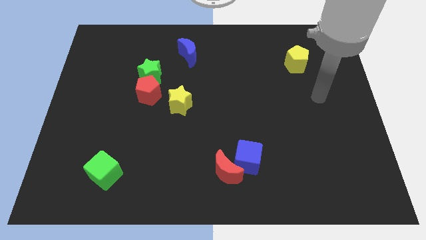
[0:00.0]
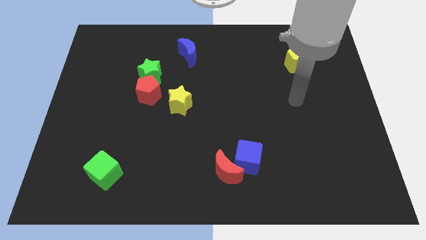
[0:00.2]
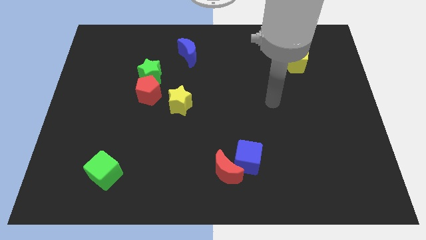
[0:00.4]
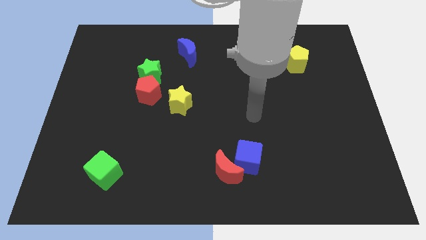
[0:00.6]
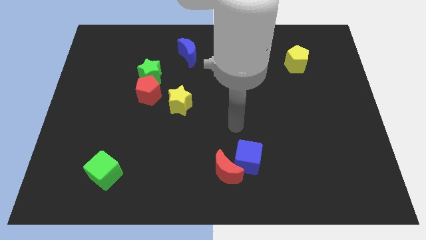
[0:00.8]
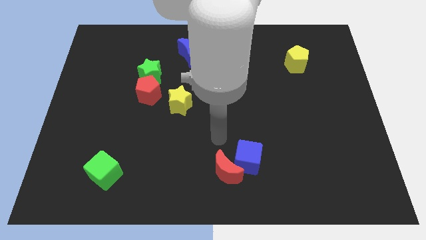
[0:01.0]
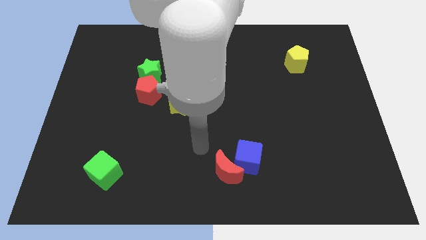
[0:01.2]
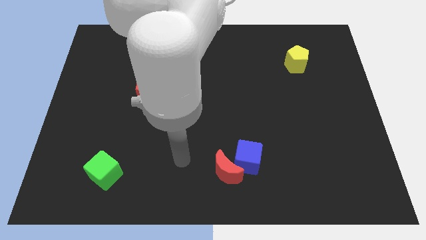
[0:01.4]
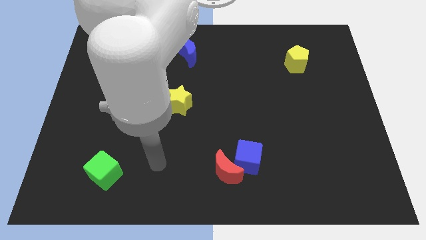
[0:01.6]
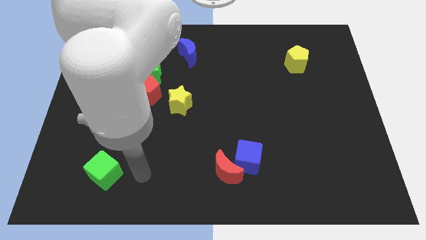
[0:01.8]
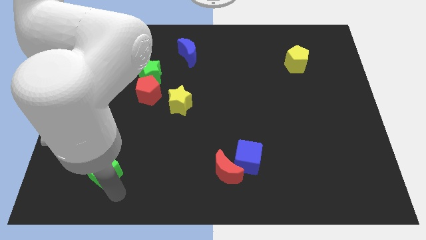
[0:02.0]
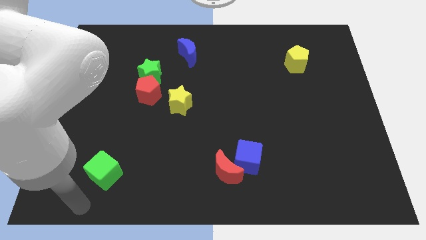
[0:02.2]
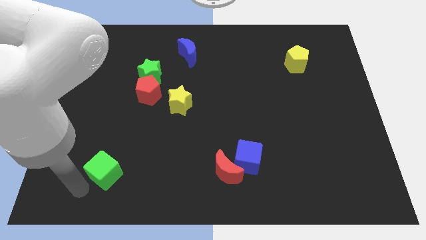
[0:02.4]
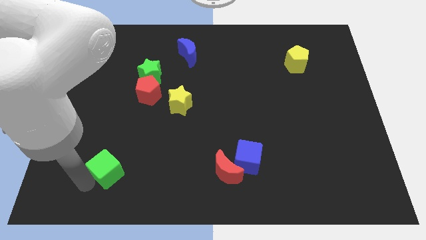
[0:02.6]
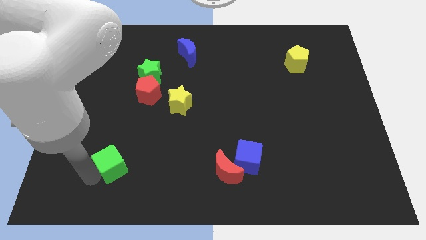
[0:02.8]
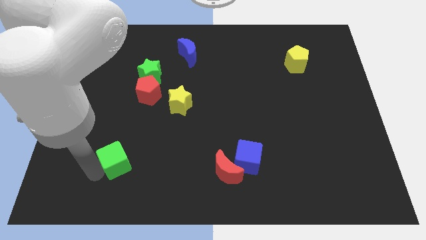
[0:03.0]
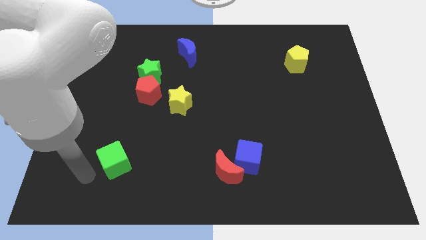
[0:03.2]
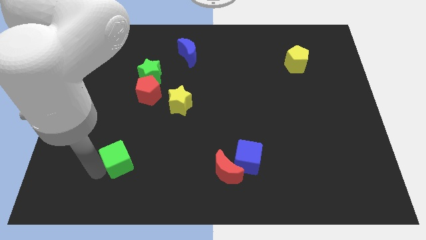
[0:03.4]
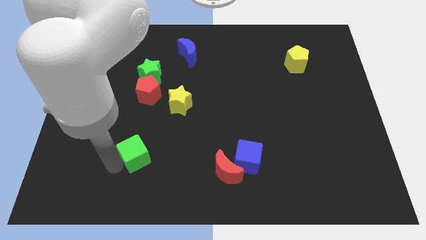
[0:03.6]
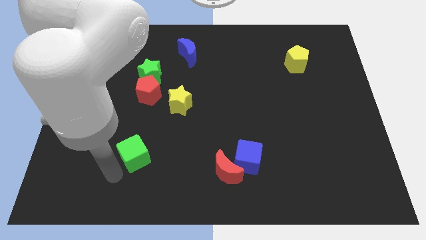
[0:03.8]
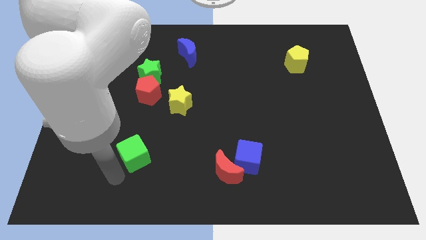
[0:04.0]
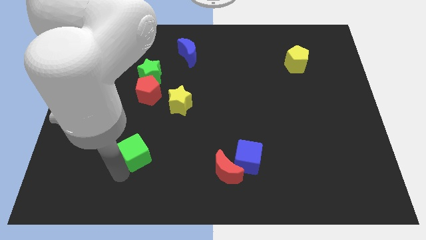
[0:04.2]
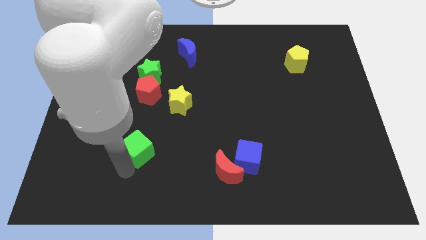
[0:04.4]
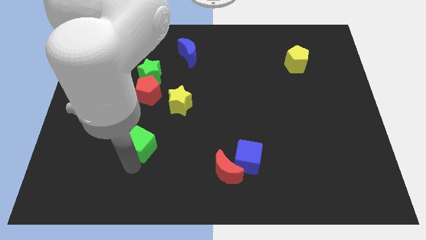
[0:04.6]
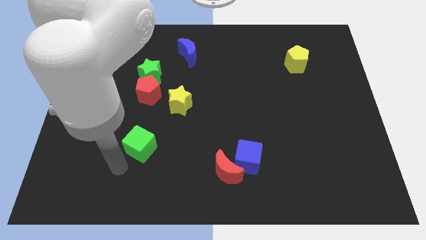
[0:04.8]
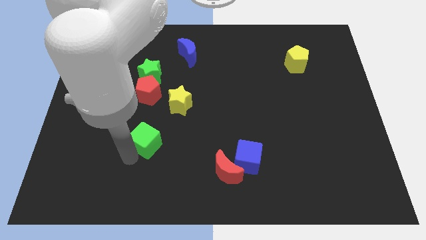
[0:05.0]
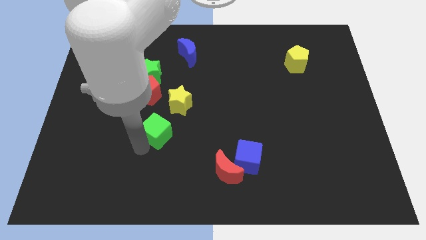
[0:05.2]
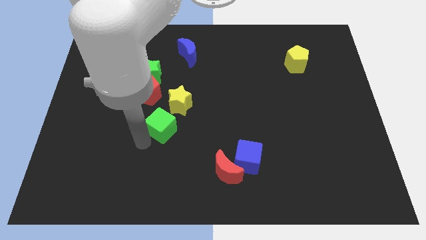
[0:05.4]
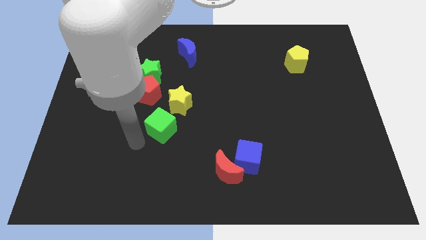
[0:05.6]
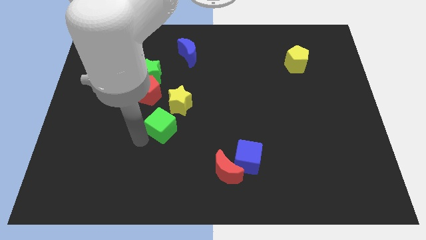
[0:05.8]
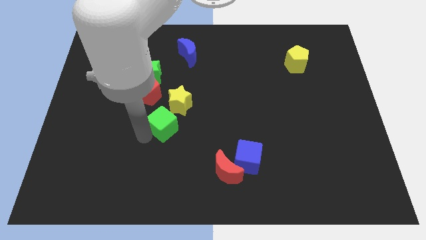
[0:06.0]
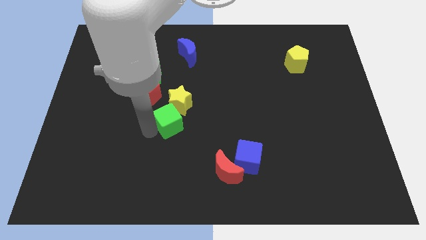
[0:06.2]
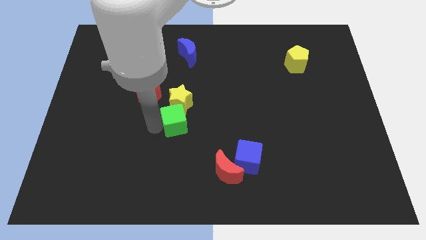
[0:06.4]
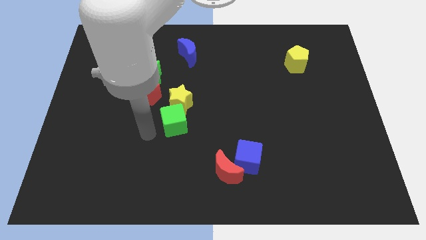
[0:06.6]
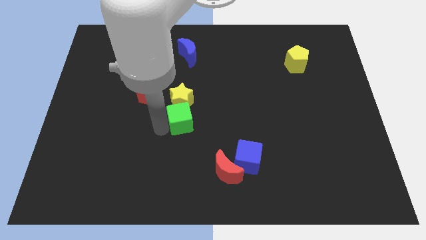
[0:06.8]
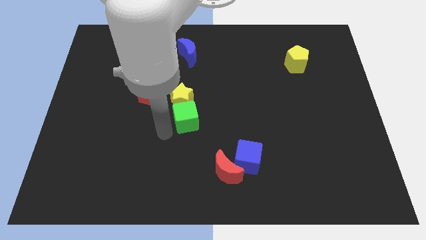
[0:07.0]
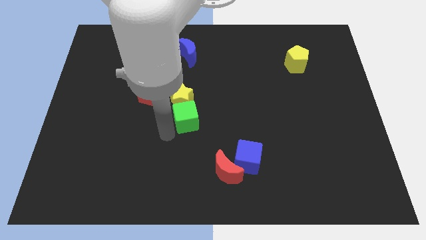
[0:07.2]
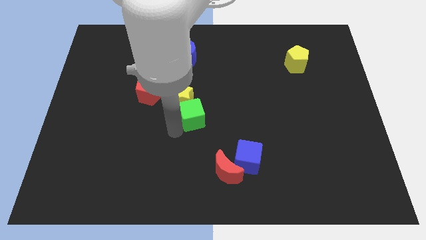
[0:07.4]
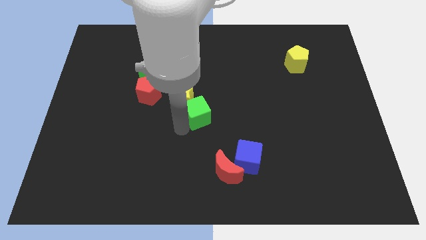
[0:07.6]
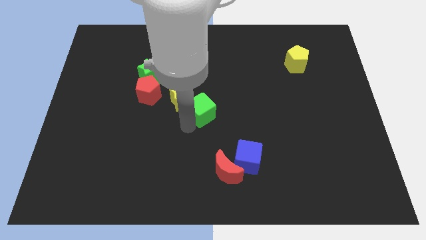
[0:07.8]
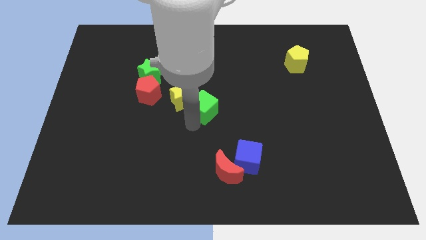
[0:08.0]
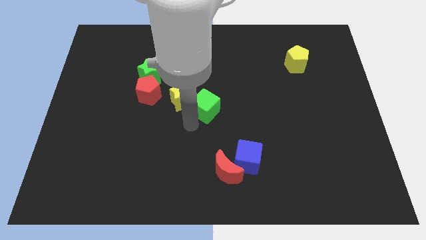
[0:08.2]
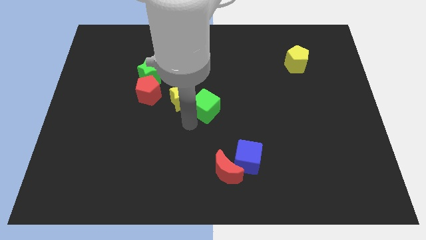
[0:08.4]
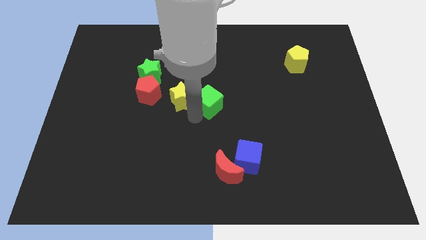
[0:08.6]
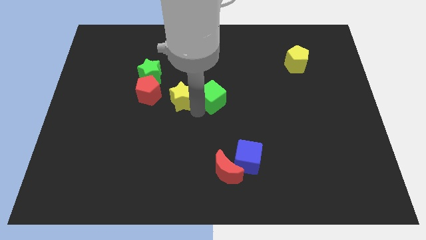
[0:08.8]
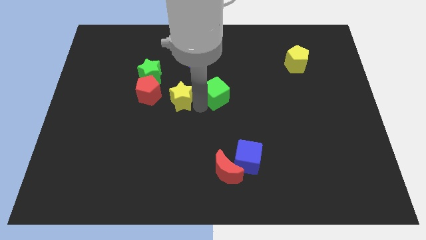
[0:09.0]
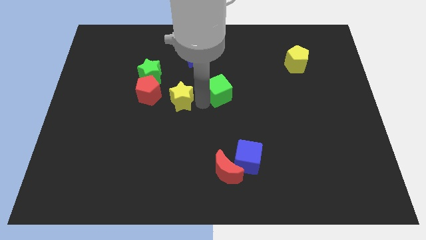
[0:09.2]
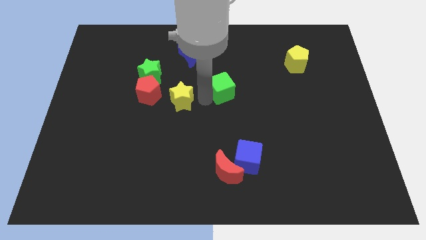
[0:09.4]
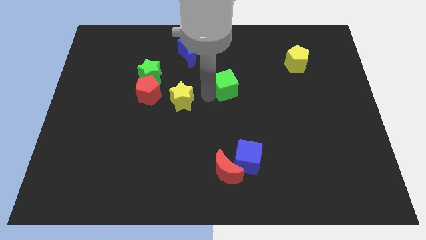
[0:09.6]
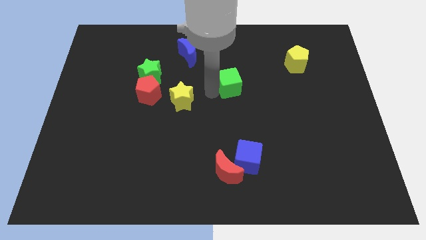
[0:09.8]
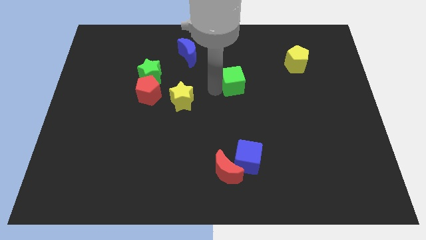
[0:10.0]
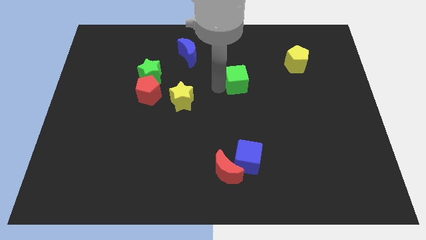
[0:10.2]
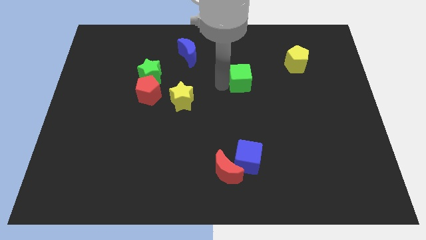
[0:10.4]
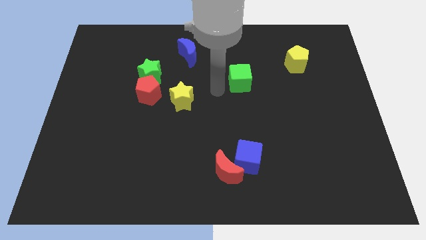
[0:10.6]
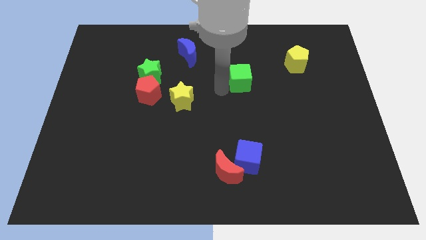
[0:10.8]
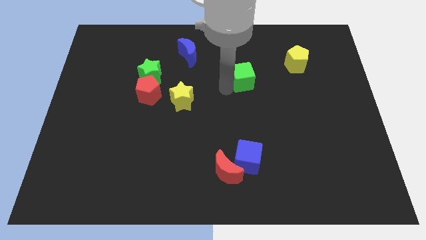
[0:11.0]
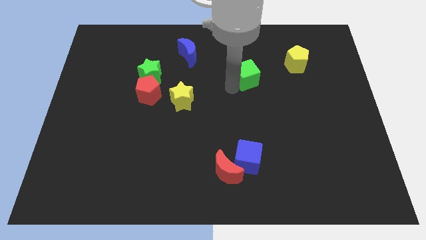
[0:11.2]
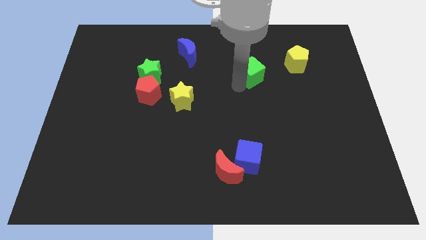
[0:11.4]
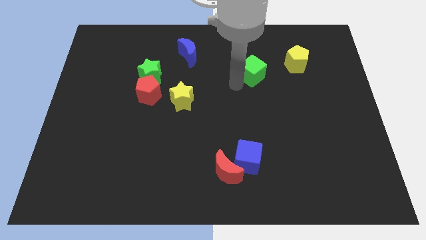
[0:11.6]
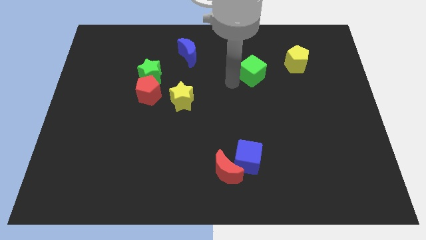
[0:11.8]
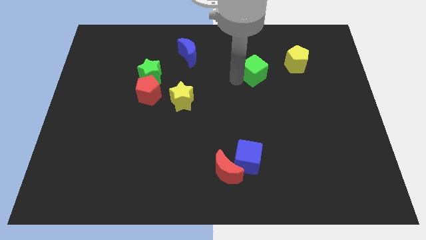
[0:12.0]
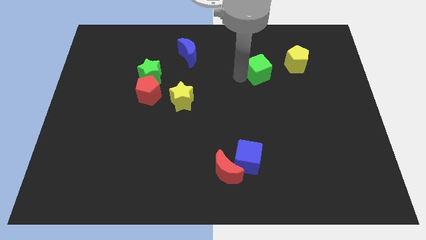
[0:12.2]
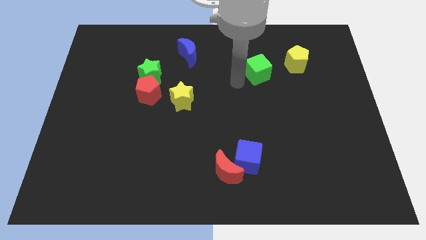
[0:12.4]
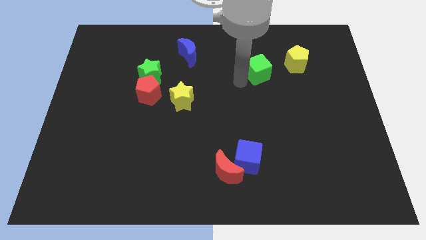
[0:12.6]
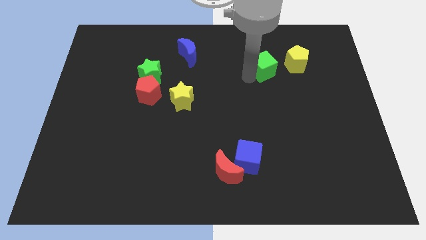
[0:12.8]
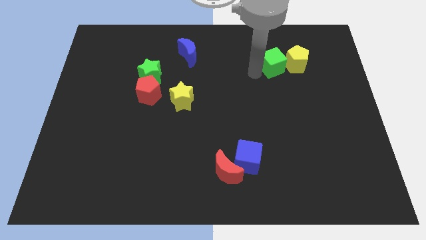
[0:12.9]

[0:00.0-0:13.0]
move the green cube next to the yellow pentagon
